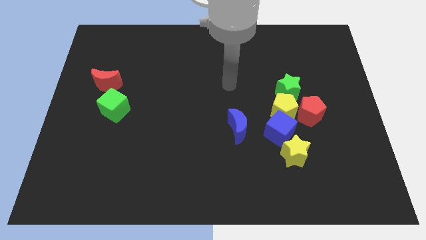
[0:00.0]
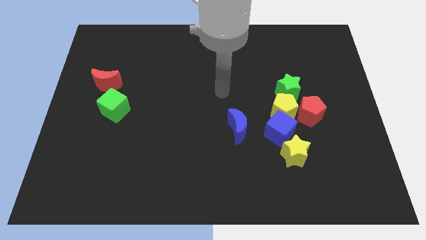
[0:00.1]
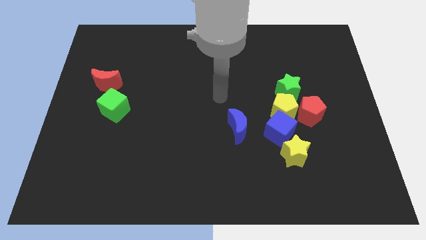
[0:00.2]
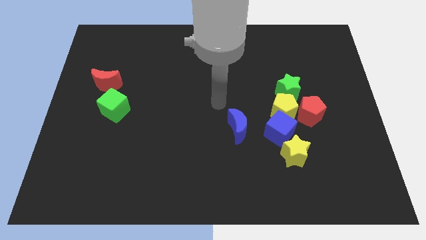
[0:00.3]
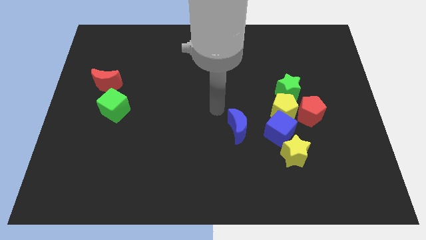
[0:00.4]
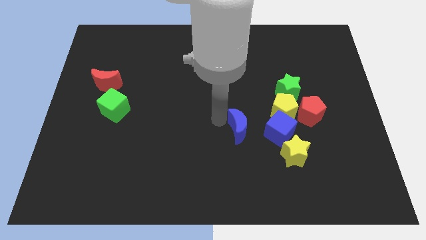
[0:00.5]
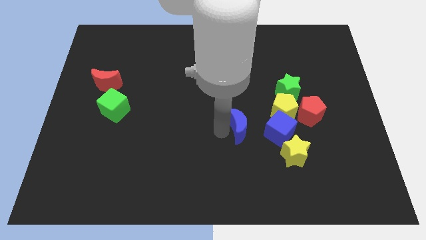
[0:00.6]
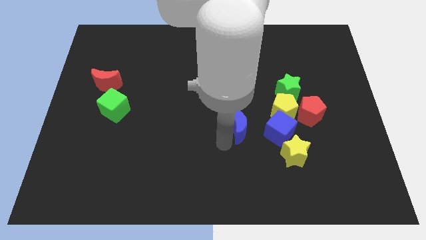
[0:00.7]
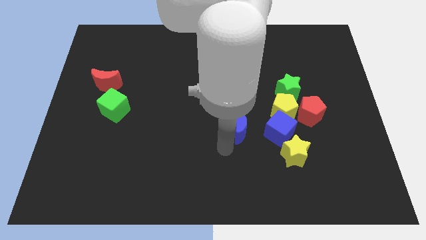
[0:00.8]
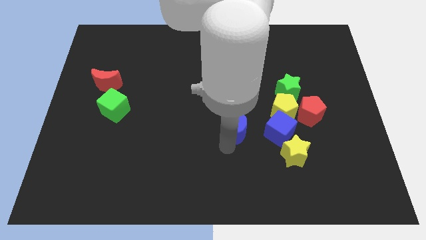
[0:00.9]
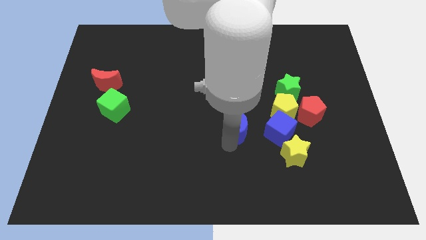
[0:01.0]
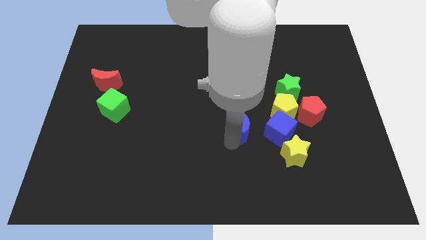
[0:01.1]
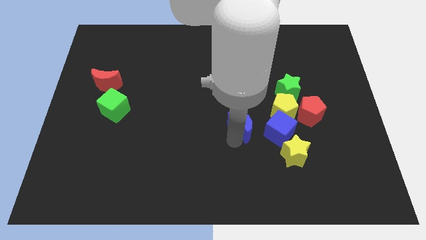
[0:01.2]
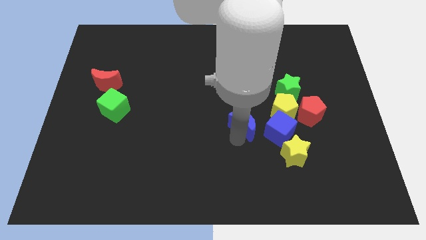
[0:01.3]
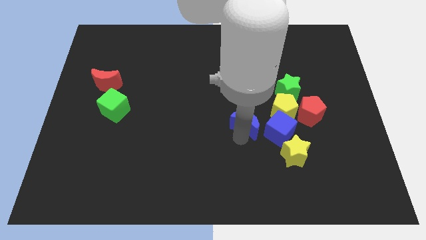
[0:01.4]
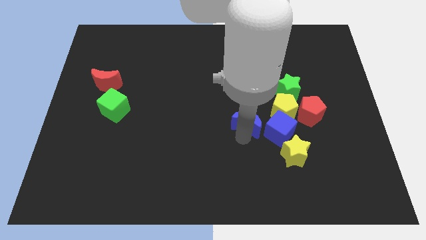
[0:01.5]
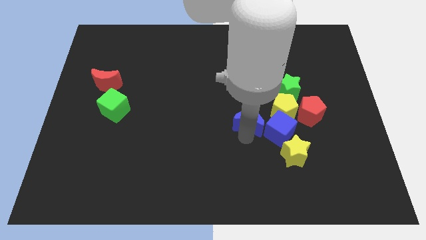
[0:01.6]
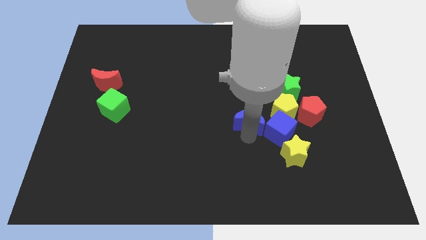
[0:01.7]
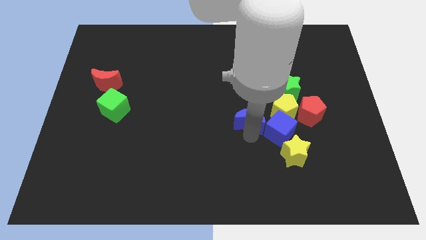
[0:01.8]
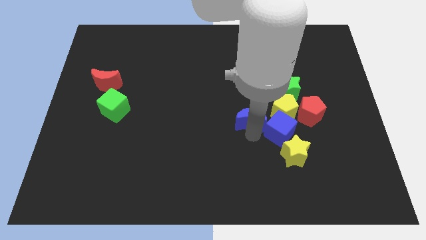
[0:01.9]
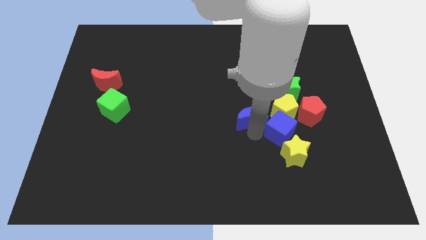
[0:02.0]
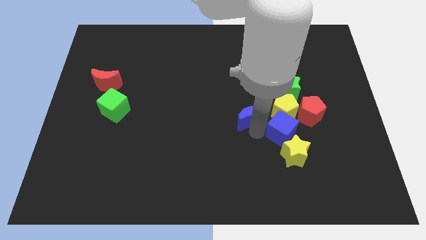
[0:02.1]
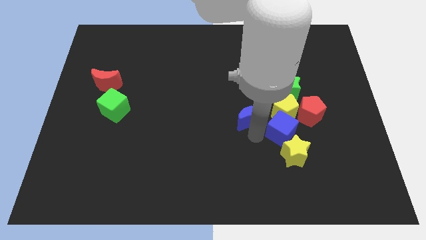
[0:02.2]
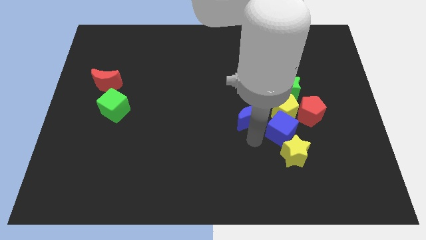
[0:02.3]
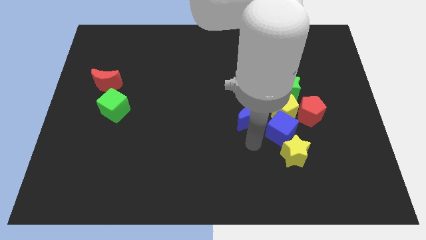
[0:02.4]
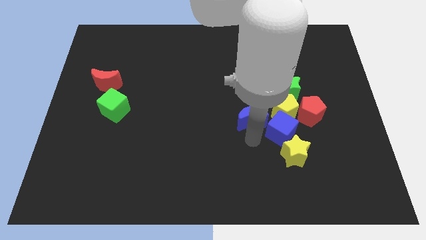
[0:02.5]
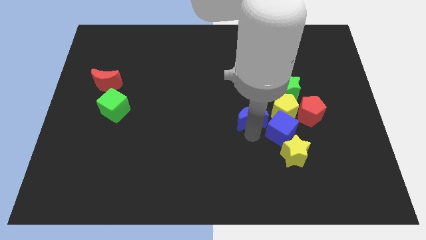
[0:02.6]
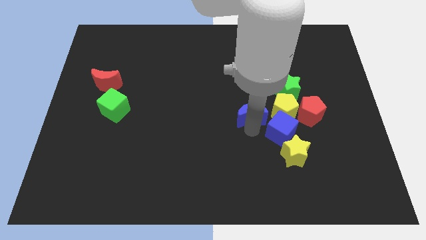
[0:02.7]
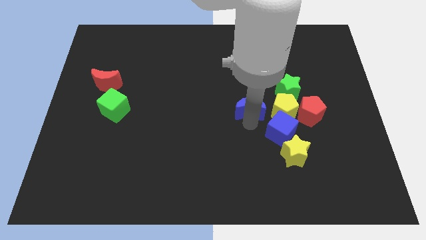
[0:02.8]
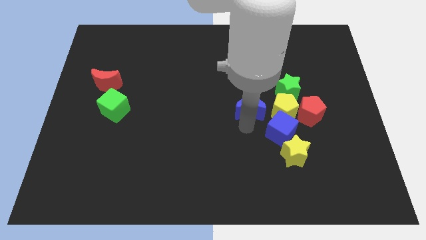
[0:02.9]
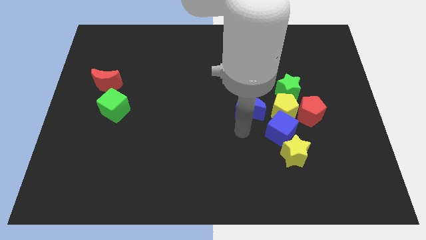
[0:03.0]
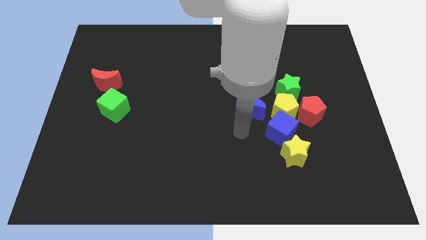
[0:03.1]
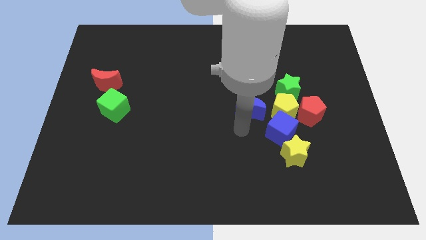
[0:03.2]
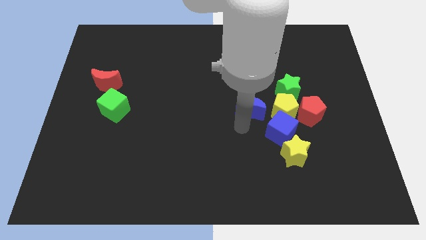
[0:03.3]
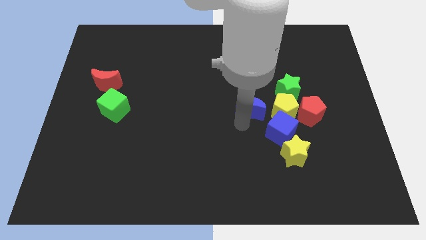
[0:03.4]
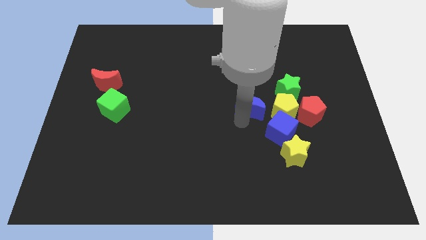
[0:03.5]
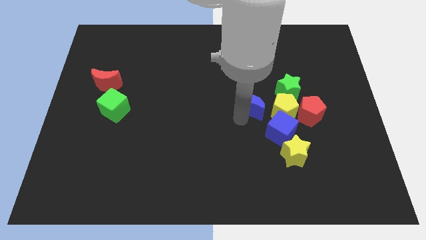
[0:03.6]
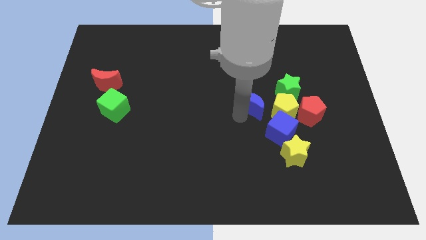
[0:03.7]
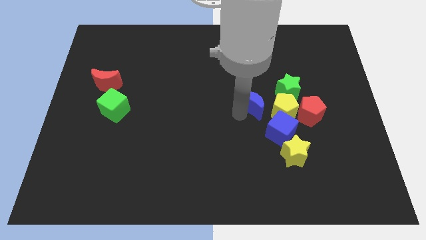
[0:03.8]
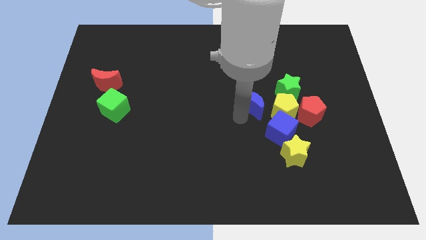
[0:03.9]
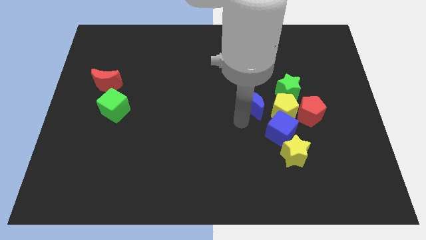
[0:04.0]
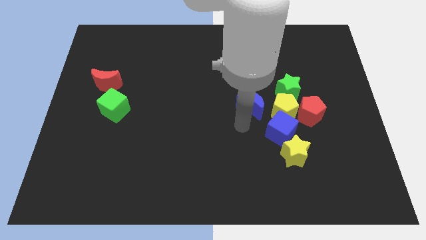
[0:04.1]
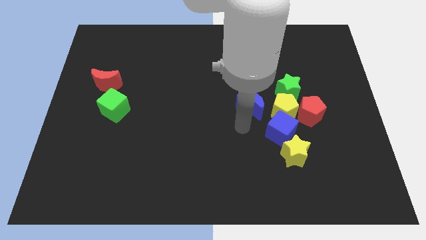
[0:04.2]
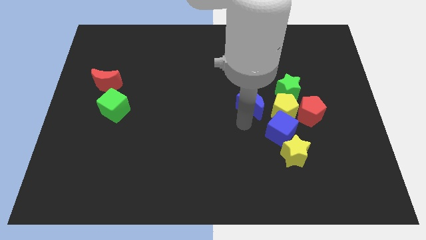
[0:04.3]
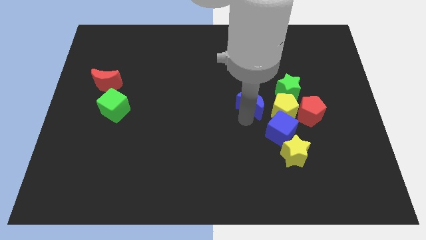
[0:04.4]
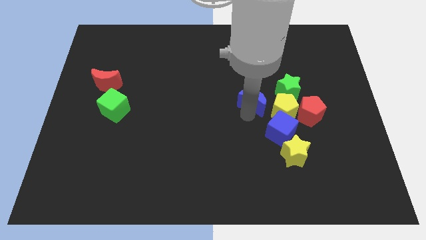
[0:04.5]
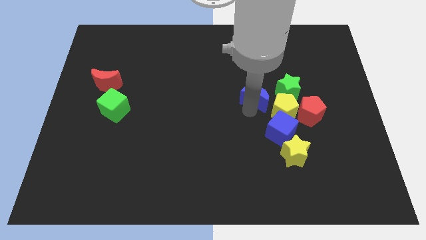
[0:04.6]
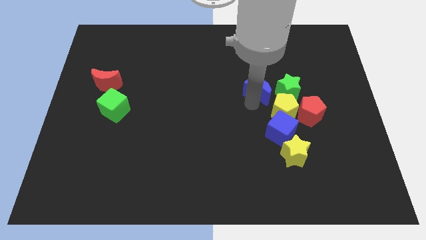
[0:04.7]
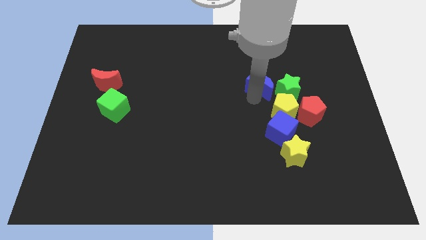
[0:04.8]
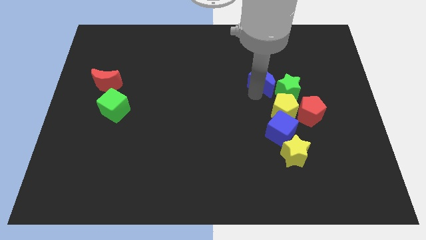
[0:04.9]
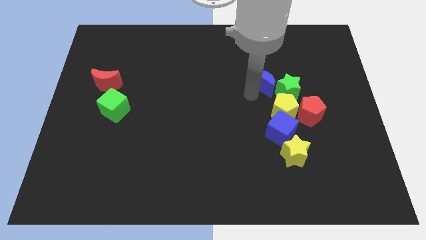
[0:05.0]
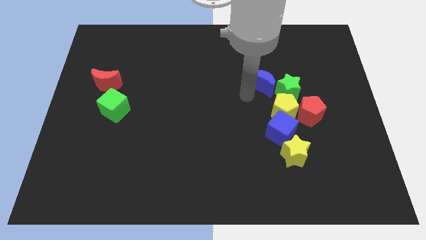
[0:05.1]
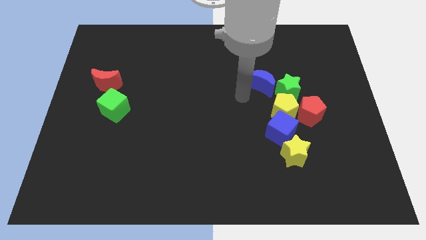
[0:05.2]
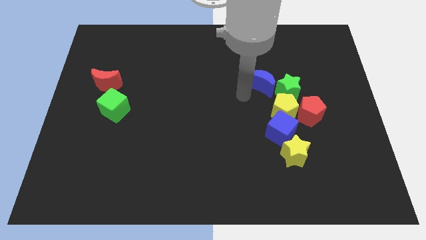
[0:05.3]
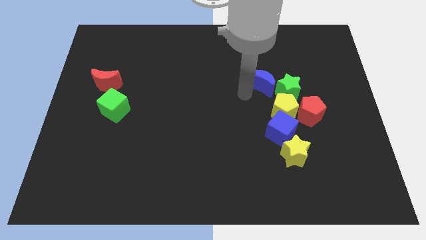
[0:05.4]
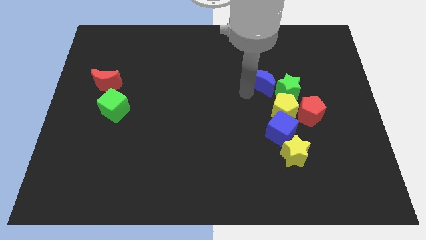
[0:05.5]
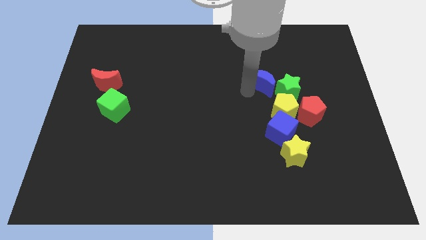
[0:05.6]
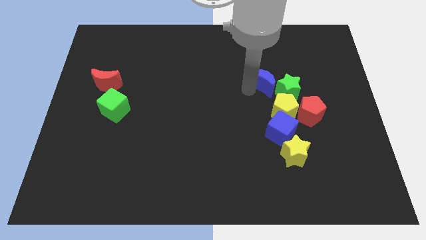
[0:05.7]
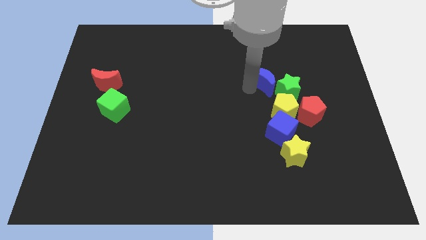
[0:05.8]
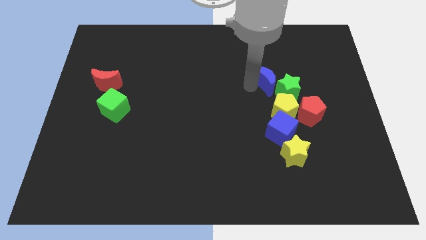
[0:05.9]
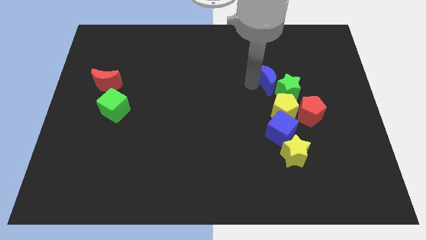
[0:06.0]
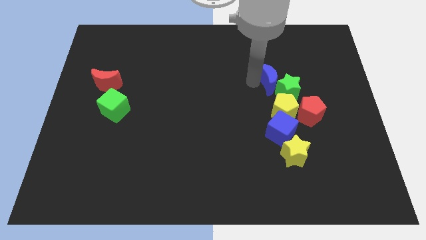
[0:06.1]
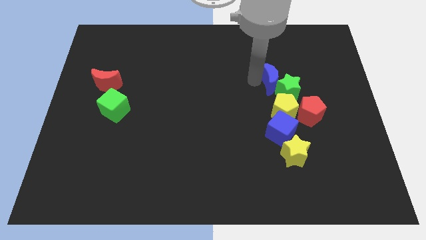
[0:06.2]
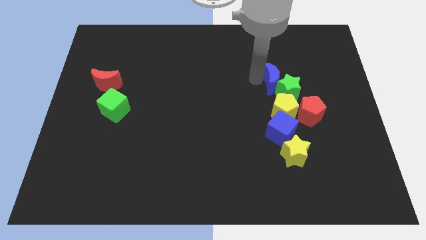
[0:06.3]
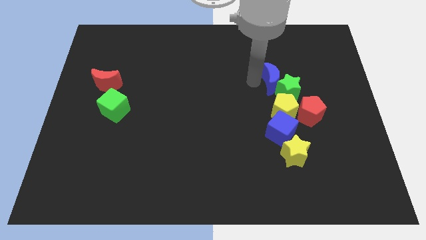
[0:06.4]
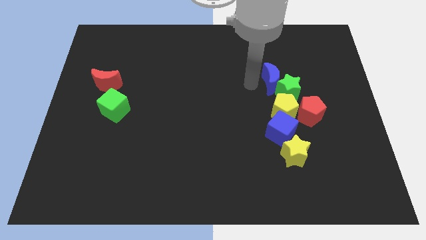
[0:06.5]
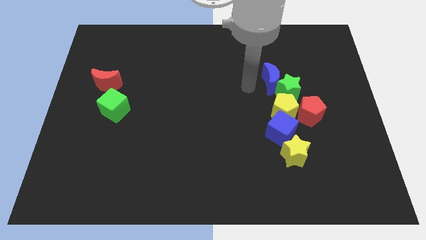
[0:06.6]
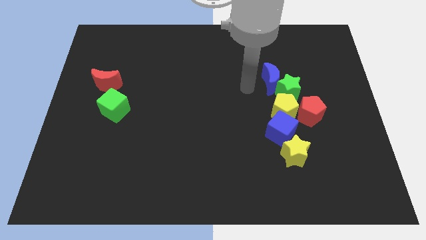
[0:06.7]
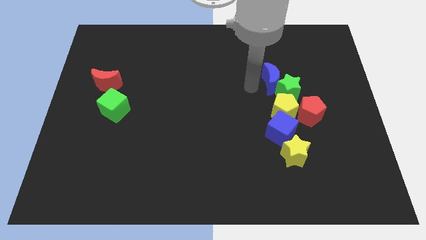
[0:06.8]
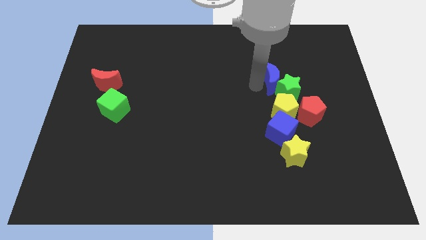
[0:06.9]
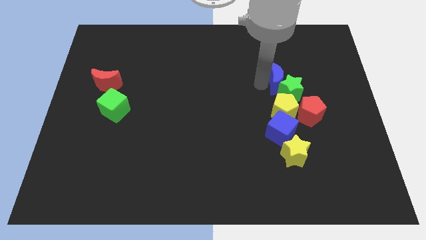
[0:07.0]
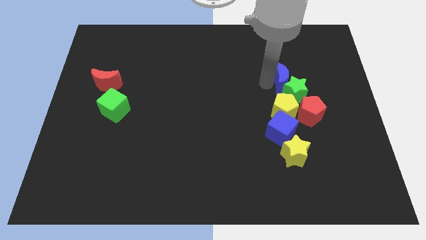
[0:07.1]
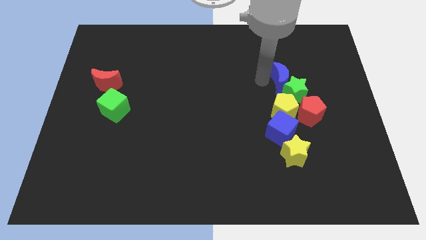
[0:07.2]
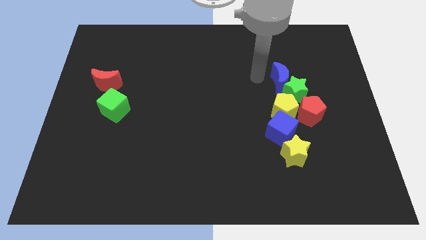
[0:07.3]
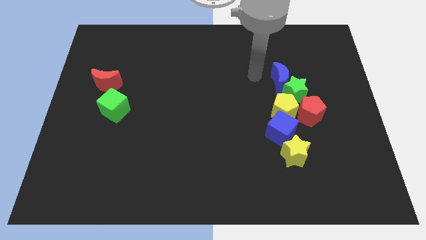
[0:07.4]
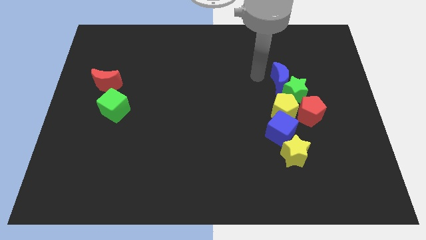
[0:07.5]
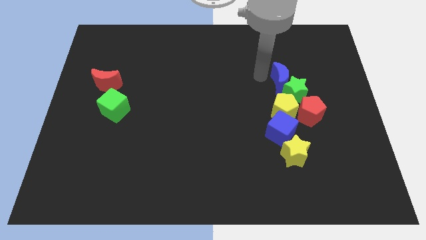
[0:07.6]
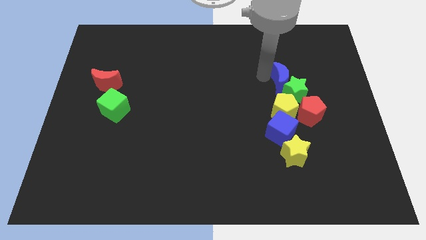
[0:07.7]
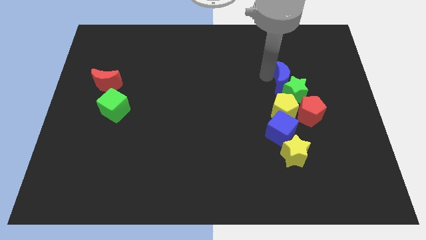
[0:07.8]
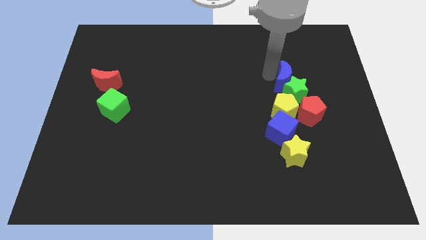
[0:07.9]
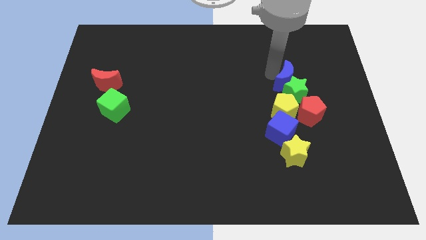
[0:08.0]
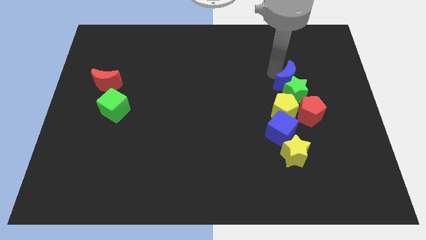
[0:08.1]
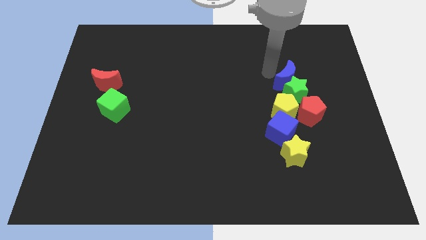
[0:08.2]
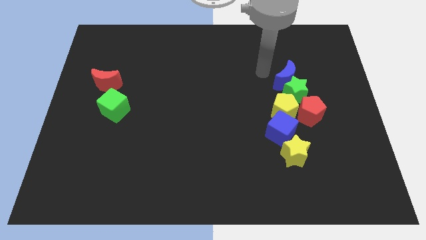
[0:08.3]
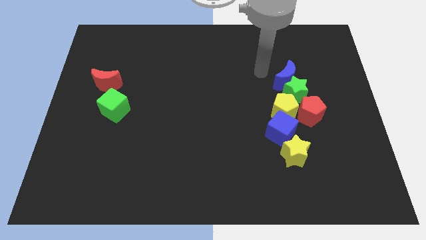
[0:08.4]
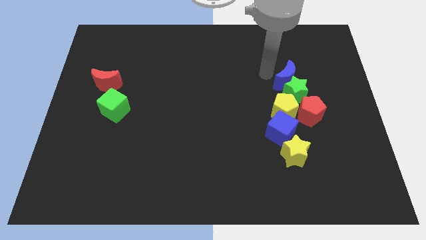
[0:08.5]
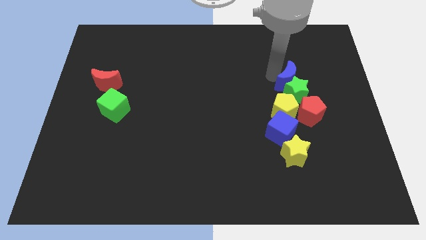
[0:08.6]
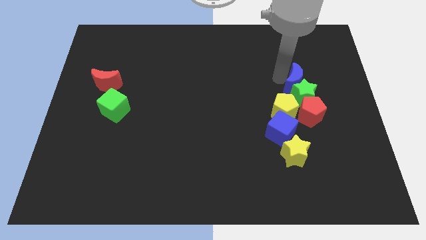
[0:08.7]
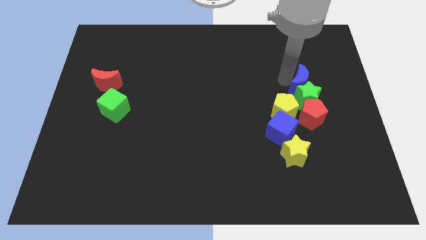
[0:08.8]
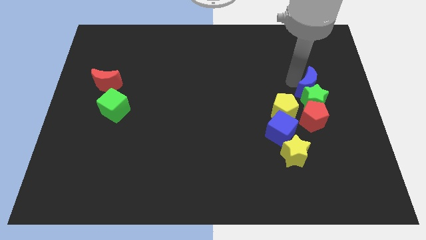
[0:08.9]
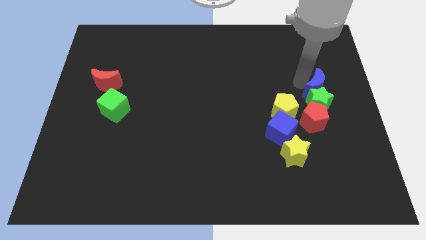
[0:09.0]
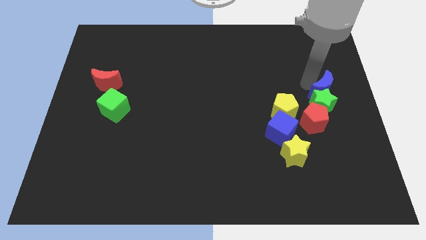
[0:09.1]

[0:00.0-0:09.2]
push the blue moon diagonally up and to the right of the red pentagon
